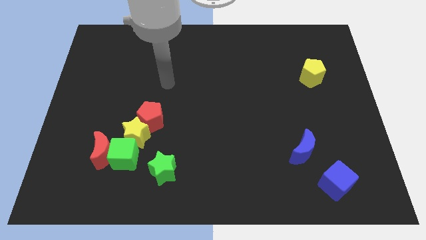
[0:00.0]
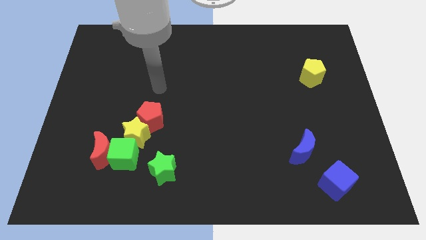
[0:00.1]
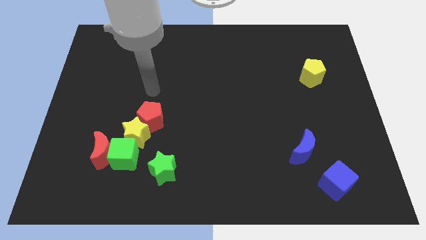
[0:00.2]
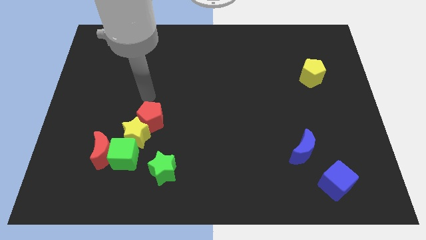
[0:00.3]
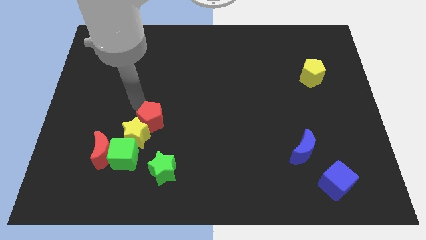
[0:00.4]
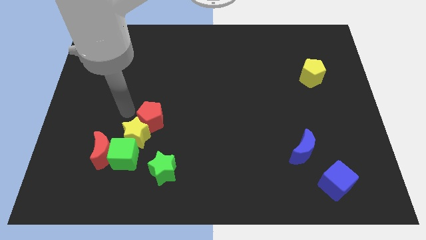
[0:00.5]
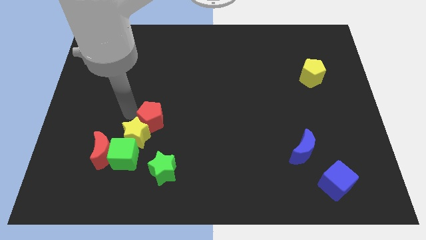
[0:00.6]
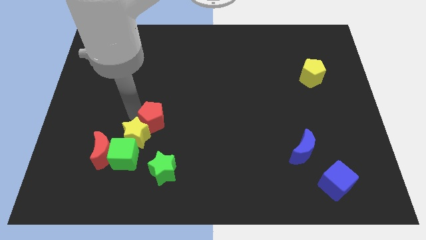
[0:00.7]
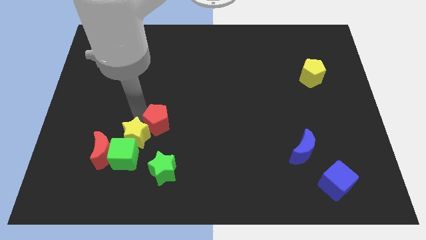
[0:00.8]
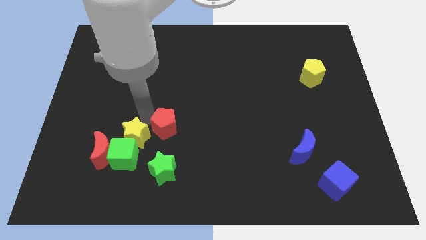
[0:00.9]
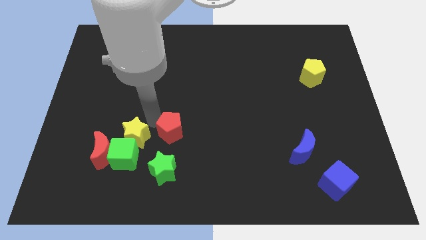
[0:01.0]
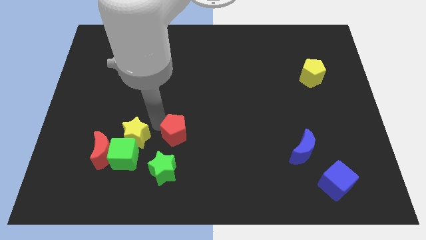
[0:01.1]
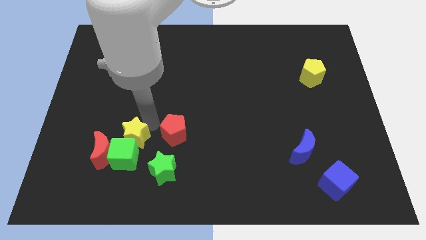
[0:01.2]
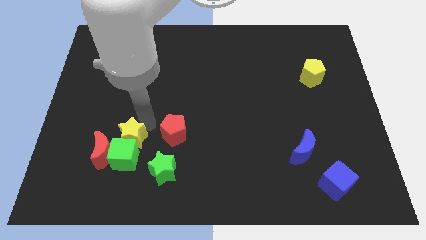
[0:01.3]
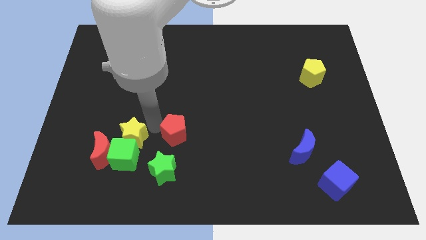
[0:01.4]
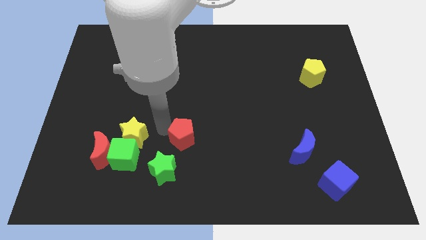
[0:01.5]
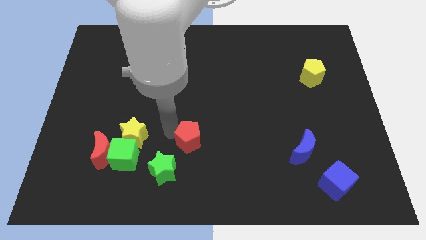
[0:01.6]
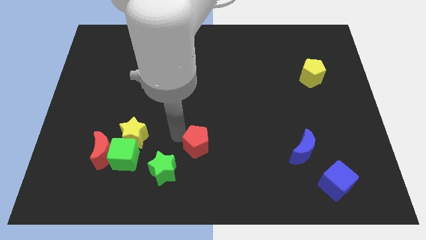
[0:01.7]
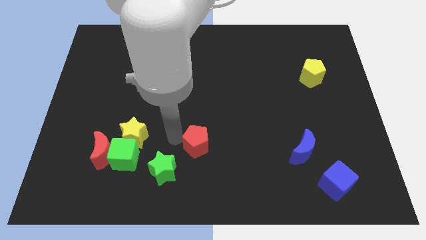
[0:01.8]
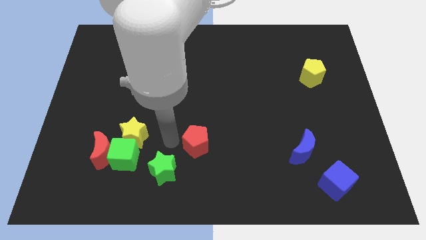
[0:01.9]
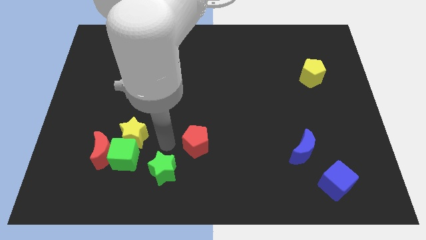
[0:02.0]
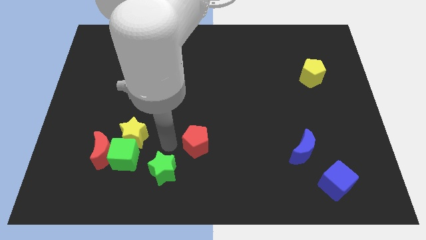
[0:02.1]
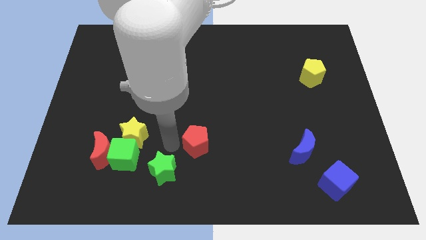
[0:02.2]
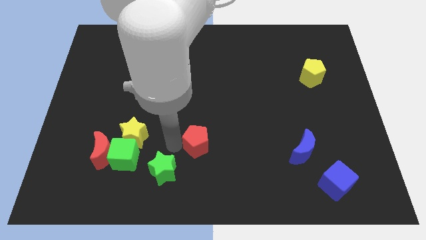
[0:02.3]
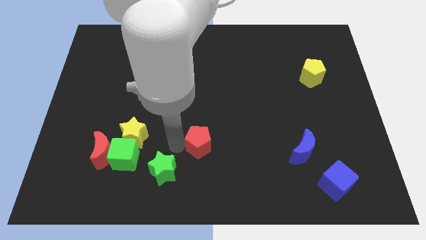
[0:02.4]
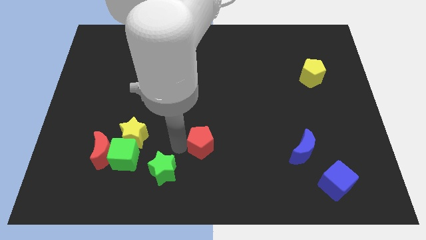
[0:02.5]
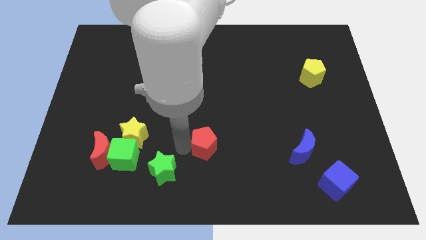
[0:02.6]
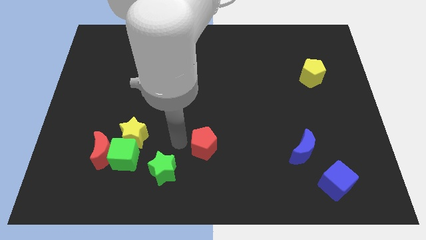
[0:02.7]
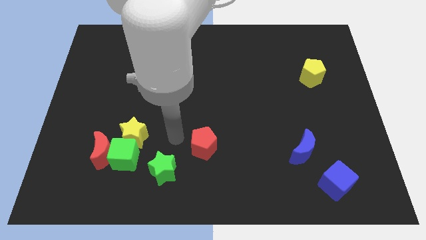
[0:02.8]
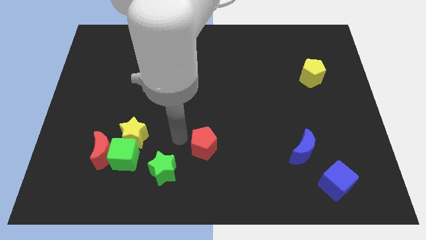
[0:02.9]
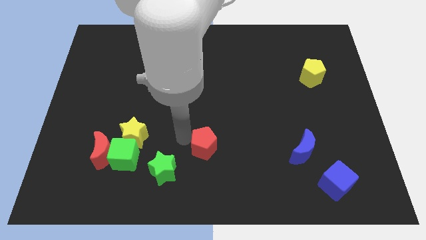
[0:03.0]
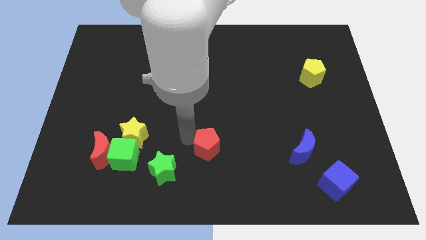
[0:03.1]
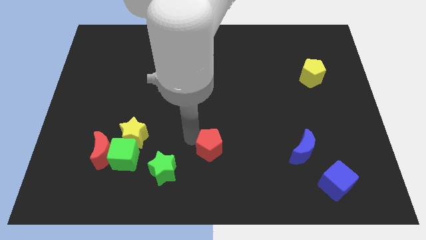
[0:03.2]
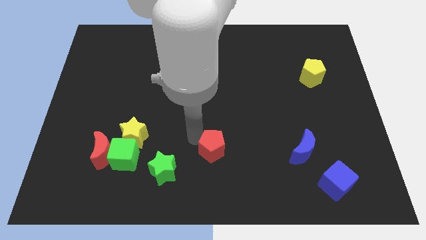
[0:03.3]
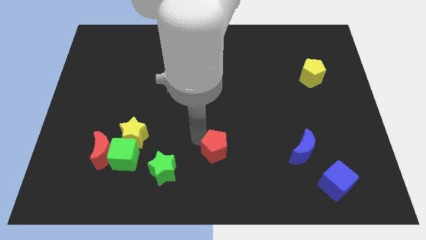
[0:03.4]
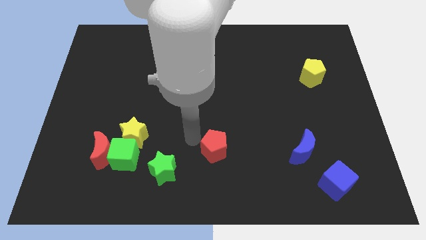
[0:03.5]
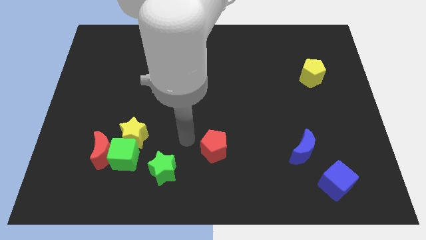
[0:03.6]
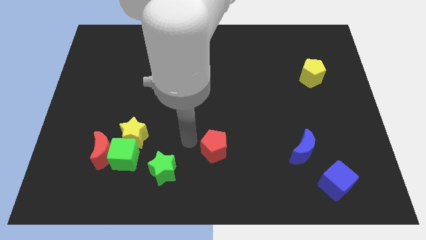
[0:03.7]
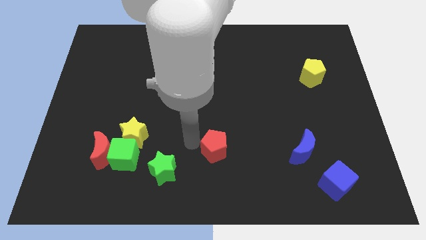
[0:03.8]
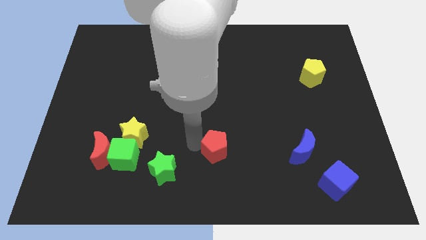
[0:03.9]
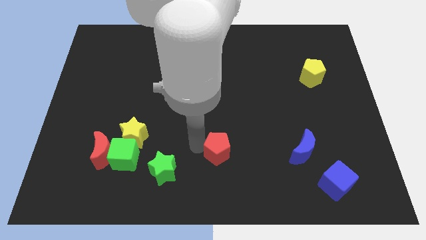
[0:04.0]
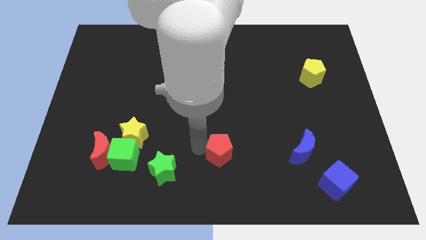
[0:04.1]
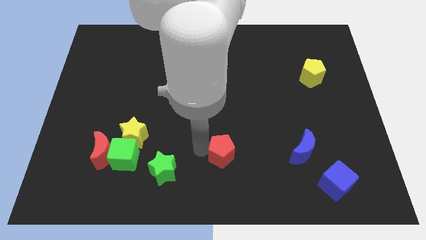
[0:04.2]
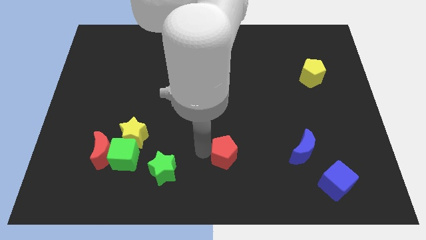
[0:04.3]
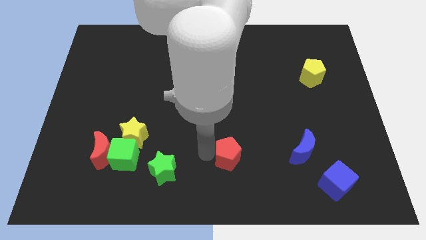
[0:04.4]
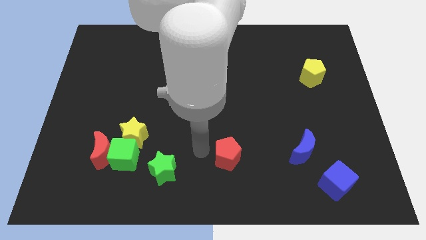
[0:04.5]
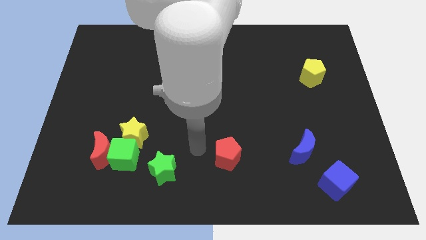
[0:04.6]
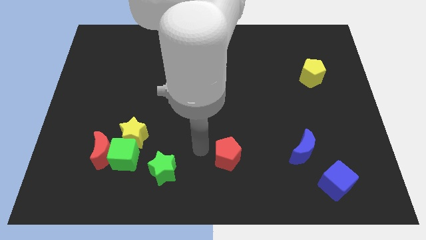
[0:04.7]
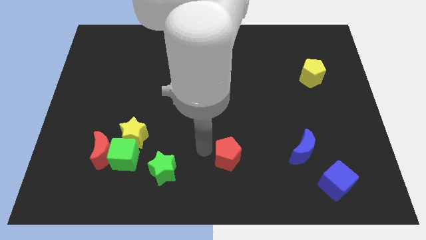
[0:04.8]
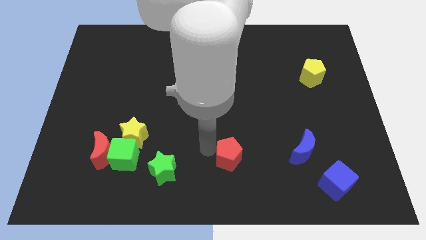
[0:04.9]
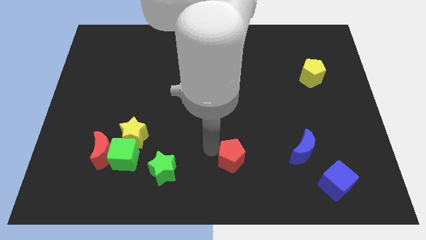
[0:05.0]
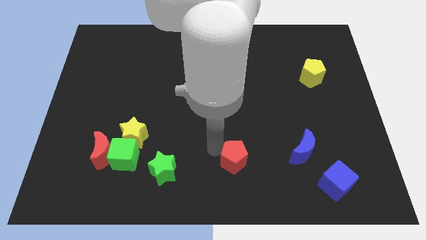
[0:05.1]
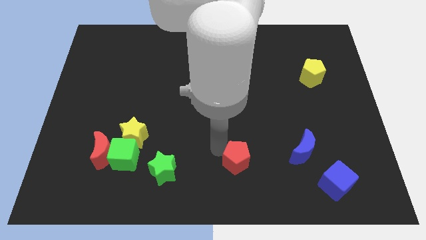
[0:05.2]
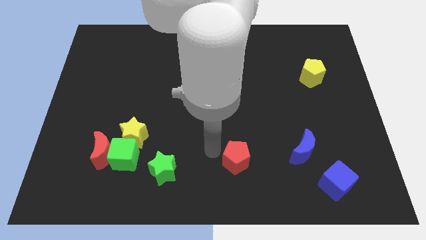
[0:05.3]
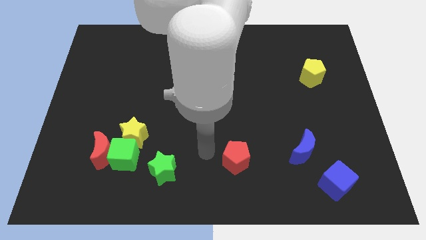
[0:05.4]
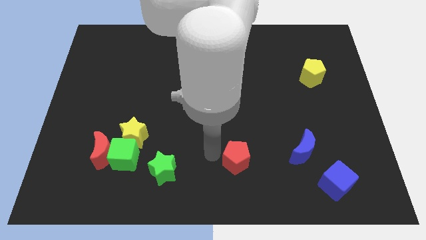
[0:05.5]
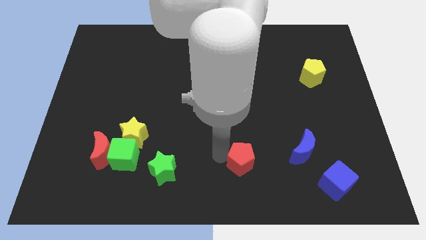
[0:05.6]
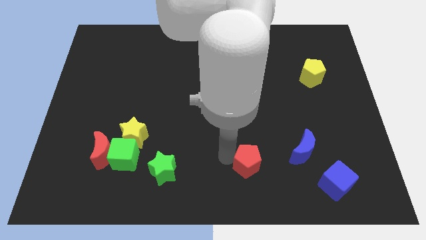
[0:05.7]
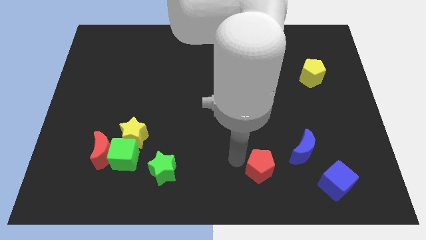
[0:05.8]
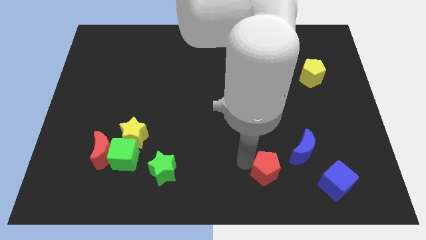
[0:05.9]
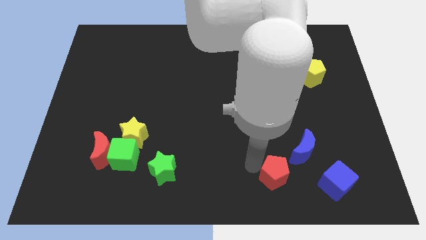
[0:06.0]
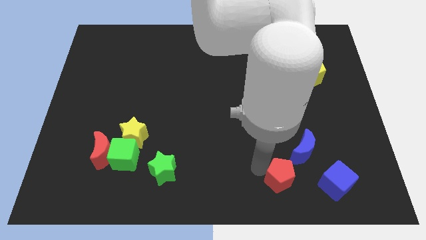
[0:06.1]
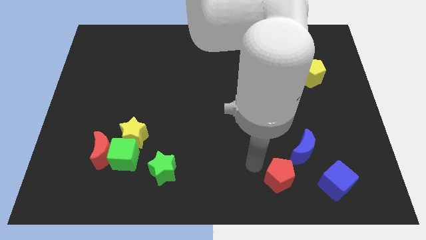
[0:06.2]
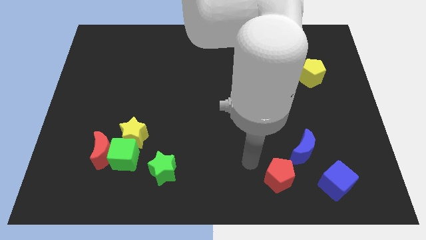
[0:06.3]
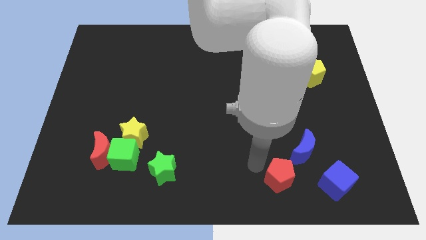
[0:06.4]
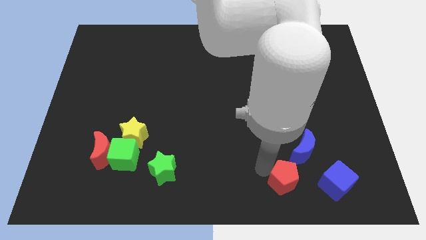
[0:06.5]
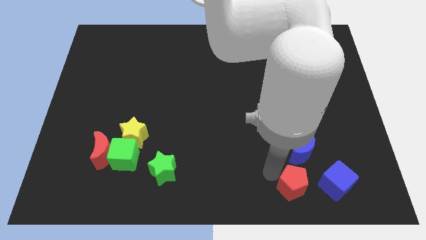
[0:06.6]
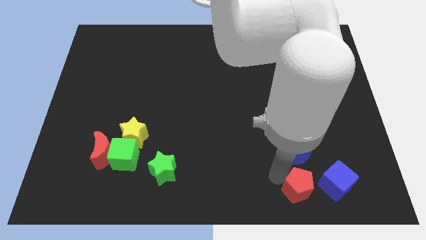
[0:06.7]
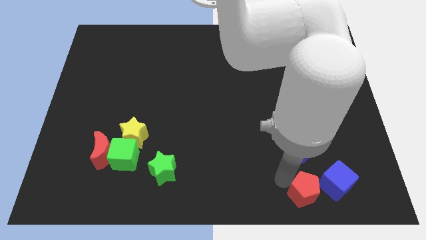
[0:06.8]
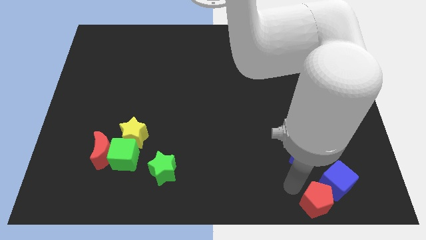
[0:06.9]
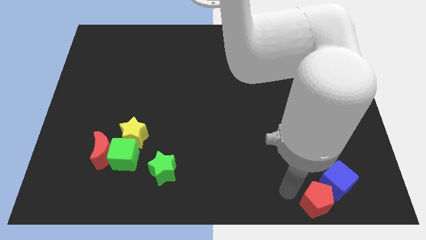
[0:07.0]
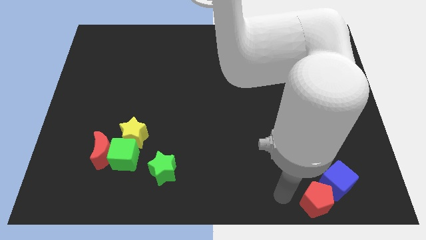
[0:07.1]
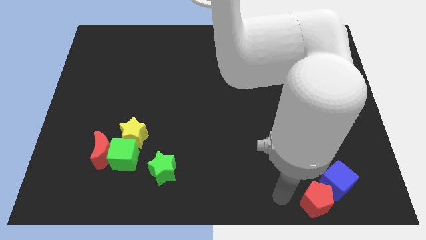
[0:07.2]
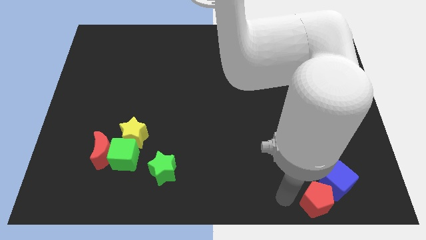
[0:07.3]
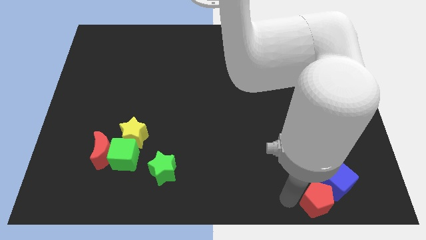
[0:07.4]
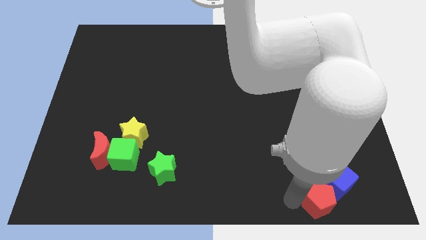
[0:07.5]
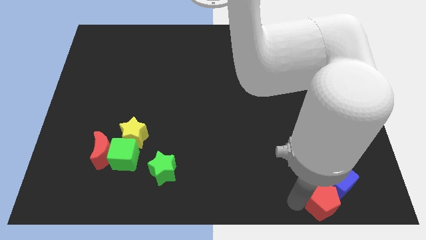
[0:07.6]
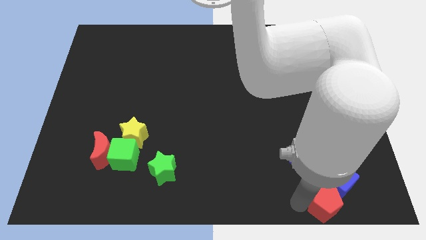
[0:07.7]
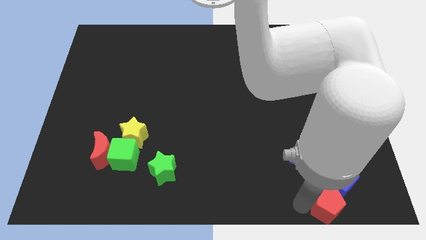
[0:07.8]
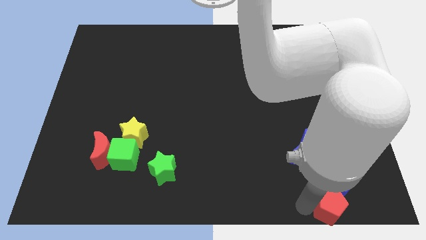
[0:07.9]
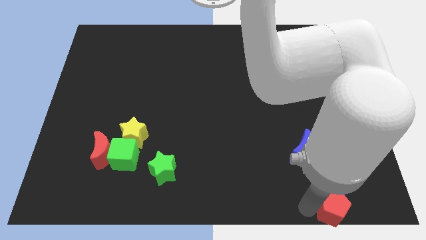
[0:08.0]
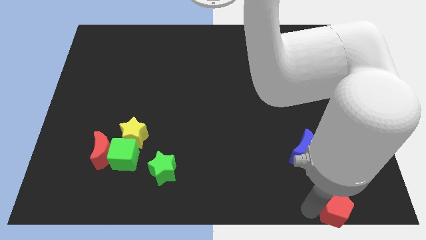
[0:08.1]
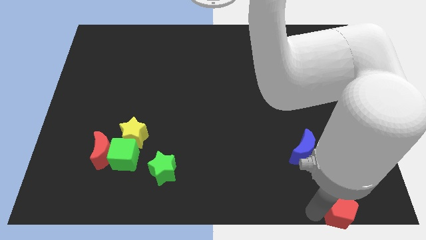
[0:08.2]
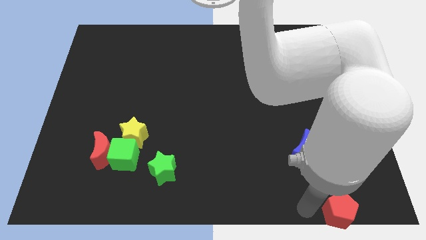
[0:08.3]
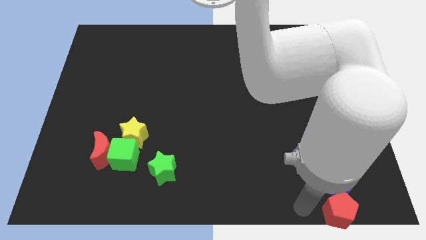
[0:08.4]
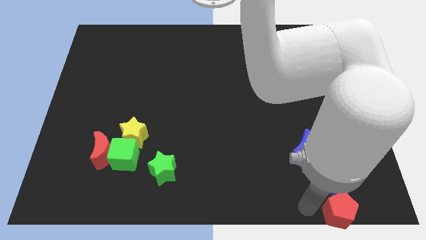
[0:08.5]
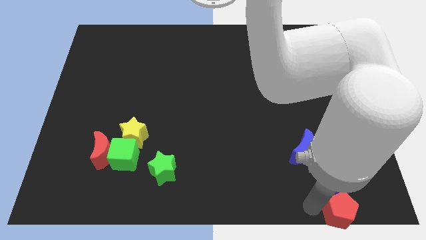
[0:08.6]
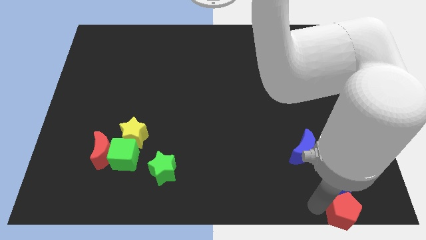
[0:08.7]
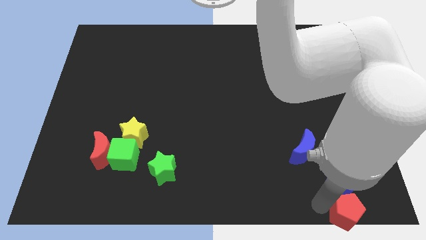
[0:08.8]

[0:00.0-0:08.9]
slide the red pentagon to the lower right corner
